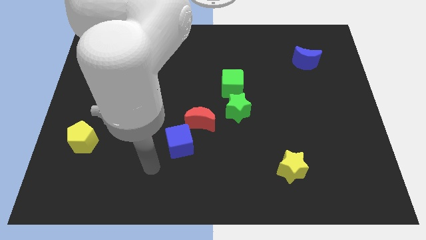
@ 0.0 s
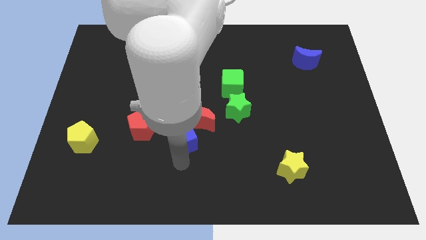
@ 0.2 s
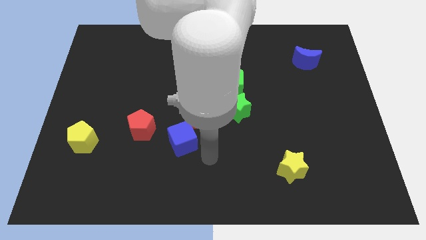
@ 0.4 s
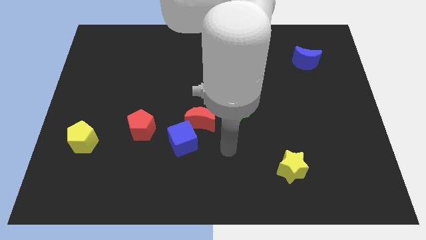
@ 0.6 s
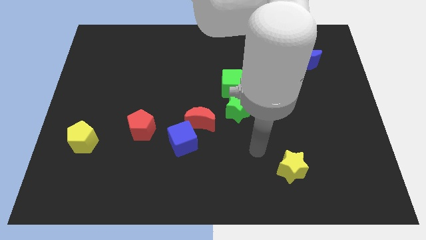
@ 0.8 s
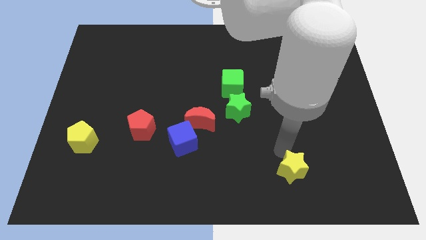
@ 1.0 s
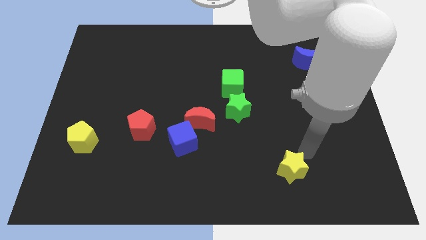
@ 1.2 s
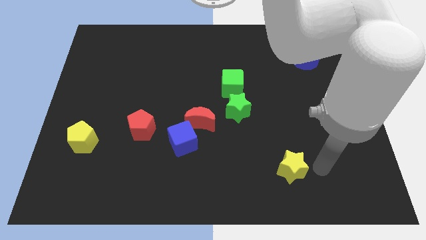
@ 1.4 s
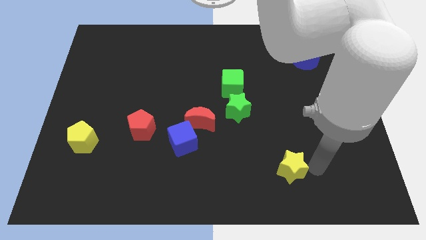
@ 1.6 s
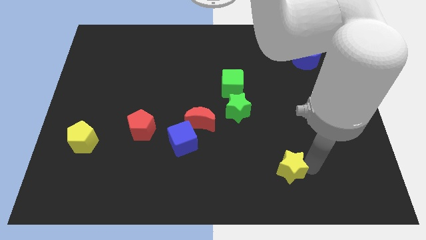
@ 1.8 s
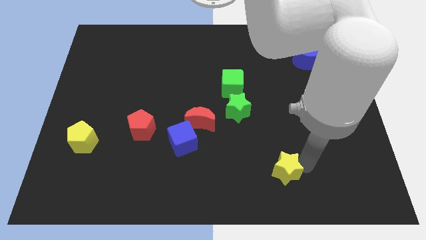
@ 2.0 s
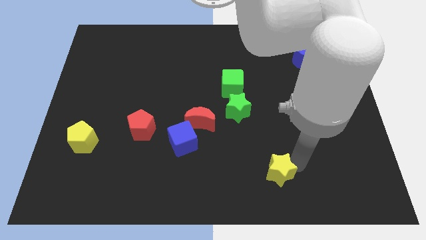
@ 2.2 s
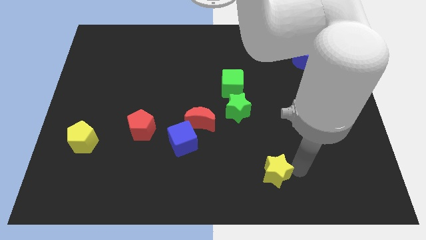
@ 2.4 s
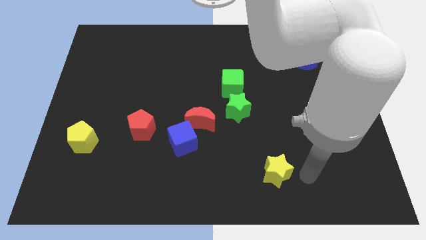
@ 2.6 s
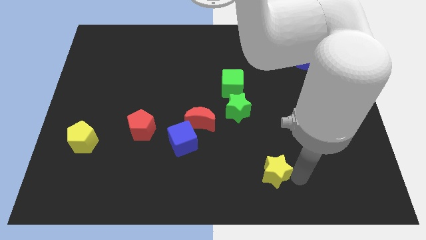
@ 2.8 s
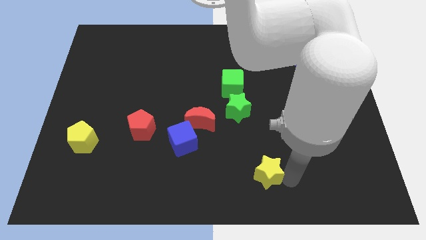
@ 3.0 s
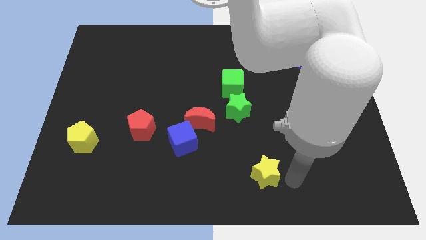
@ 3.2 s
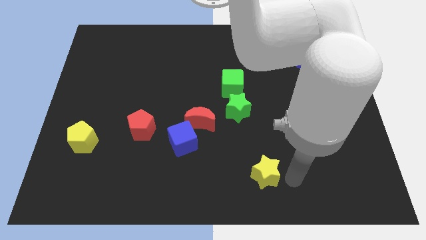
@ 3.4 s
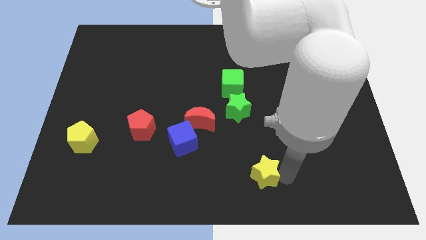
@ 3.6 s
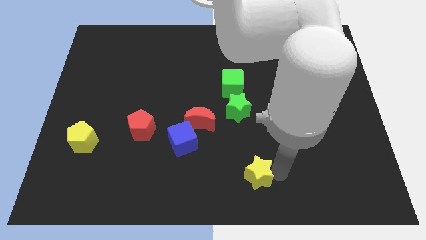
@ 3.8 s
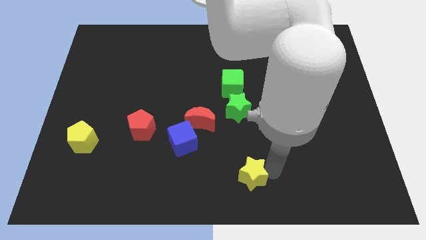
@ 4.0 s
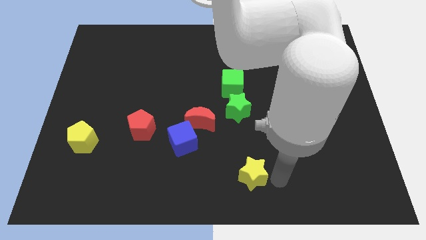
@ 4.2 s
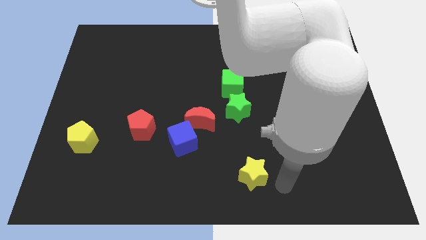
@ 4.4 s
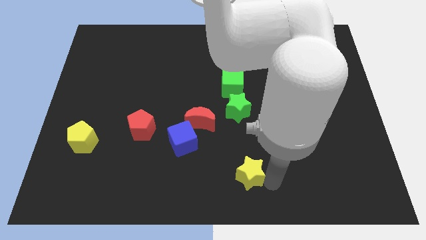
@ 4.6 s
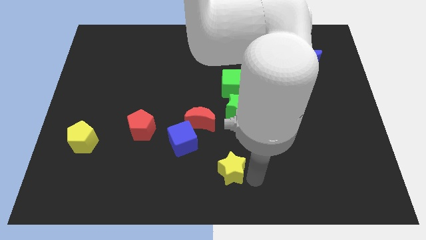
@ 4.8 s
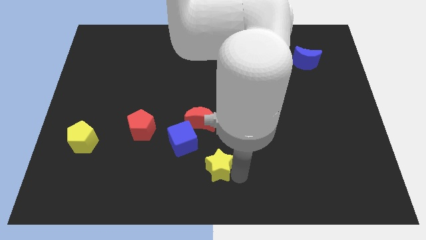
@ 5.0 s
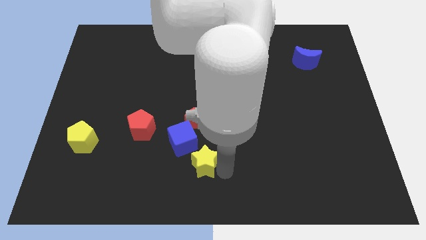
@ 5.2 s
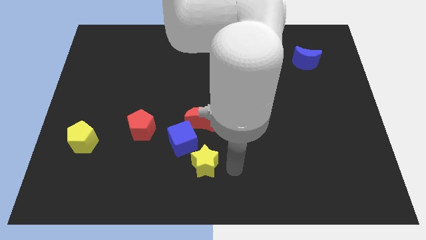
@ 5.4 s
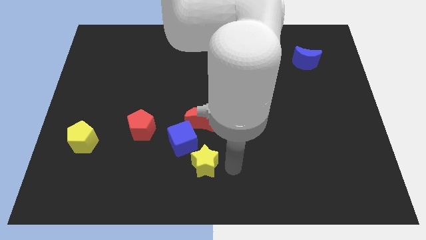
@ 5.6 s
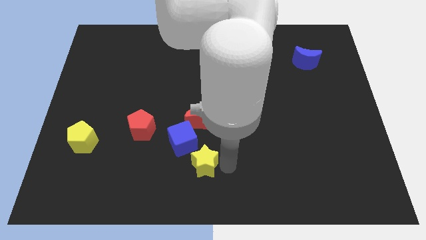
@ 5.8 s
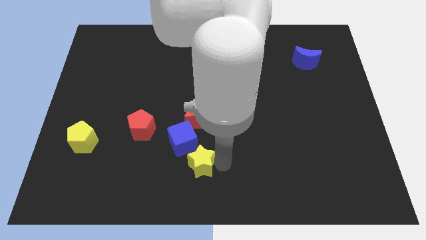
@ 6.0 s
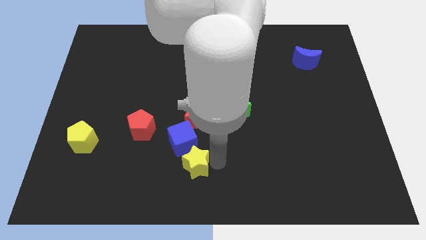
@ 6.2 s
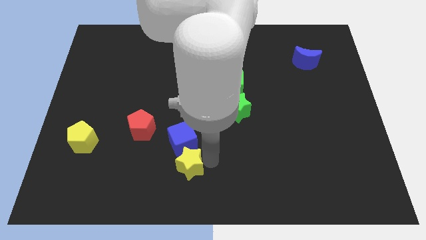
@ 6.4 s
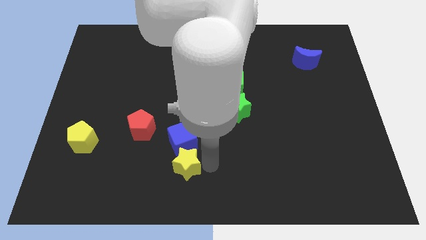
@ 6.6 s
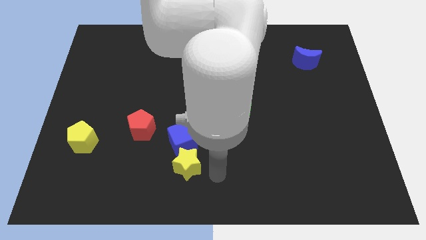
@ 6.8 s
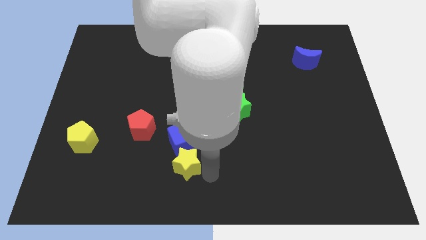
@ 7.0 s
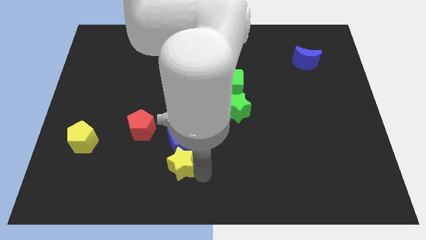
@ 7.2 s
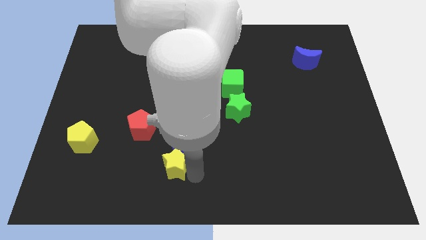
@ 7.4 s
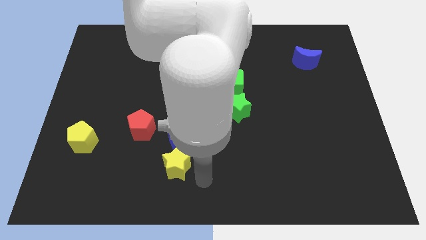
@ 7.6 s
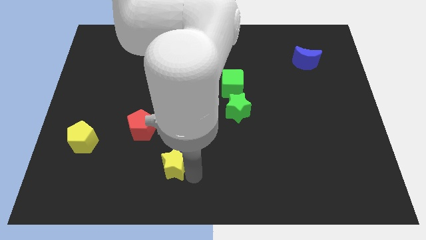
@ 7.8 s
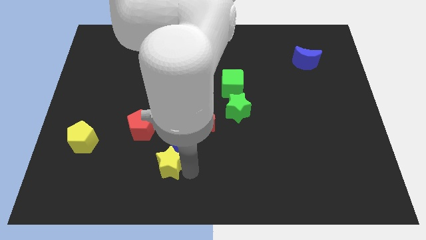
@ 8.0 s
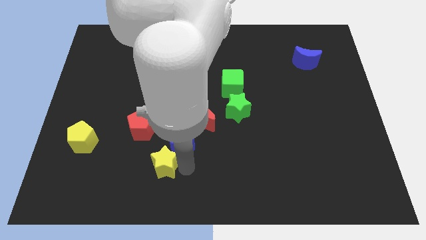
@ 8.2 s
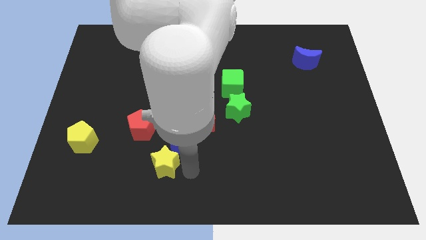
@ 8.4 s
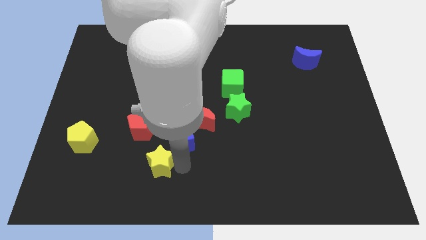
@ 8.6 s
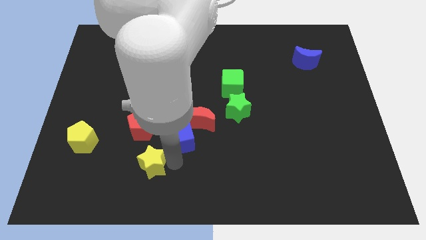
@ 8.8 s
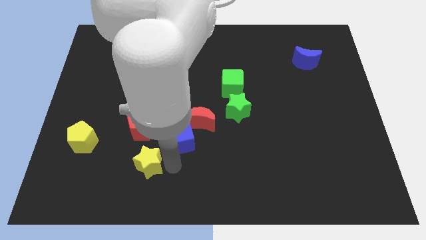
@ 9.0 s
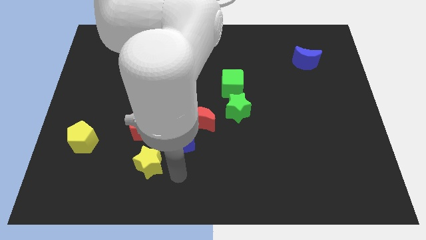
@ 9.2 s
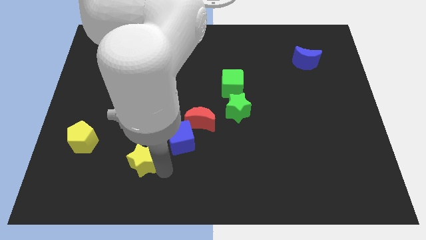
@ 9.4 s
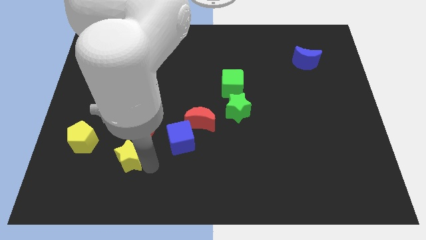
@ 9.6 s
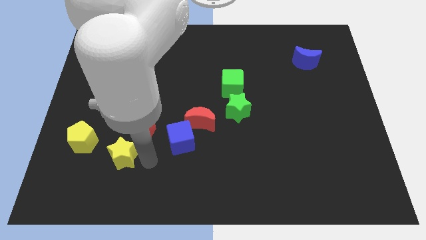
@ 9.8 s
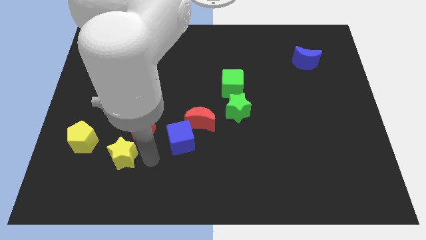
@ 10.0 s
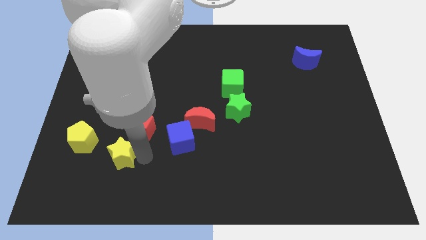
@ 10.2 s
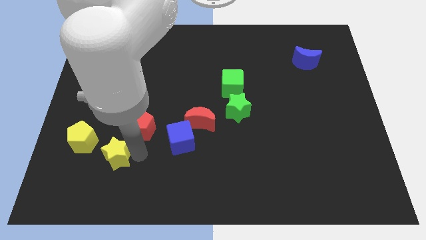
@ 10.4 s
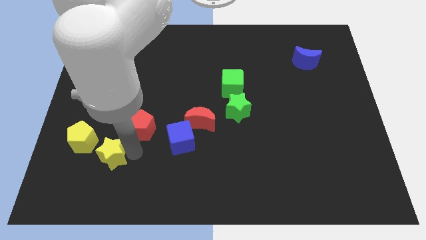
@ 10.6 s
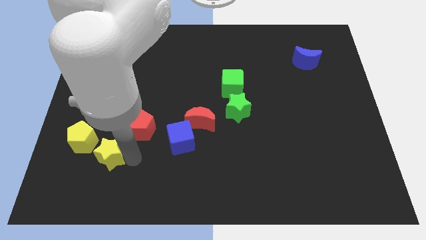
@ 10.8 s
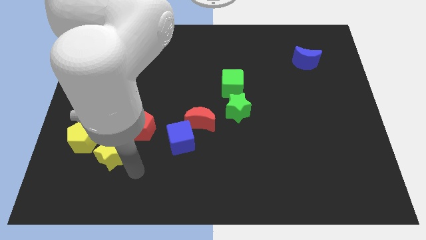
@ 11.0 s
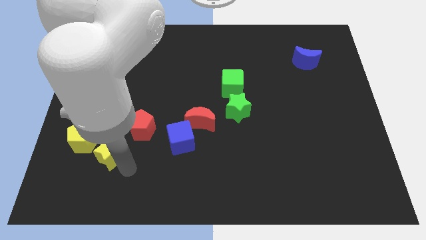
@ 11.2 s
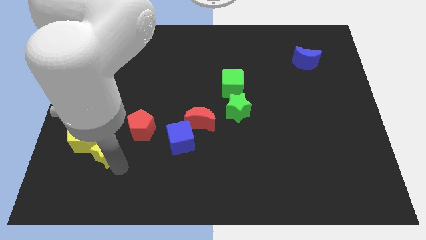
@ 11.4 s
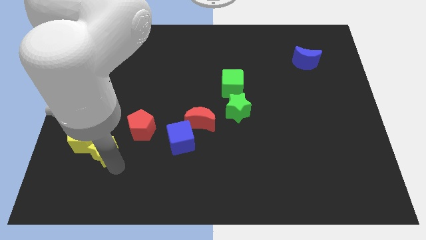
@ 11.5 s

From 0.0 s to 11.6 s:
slide the yellow star towards the yellow pentagon

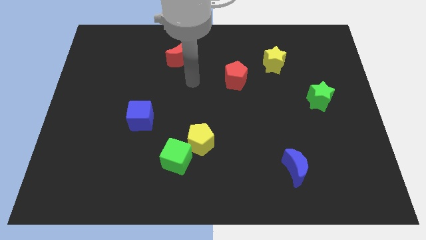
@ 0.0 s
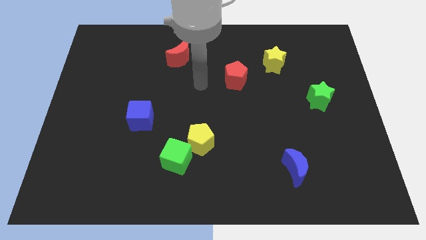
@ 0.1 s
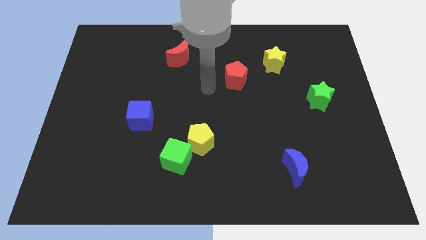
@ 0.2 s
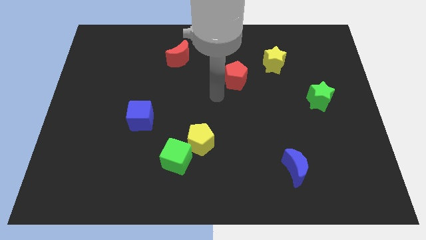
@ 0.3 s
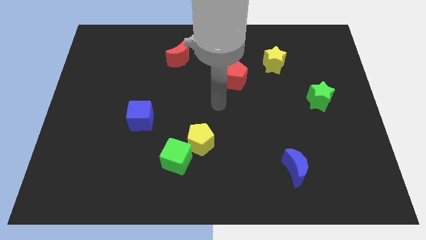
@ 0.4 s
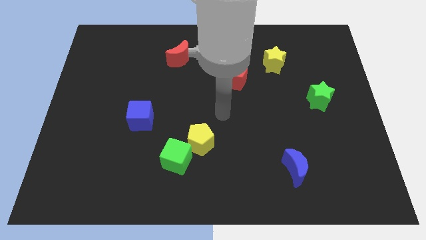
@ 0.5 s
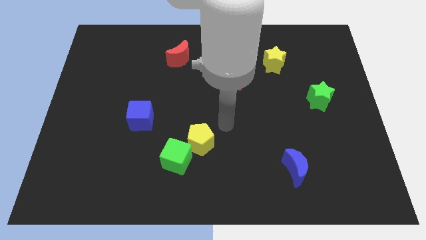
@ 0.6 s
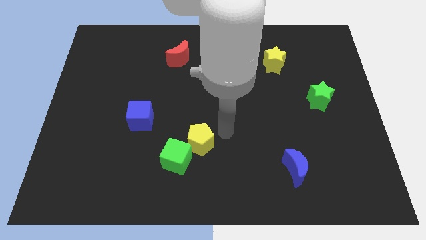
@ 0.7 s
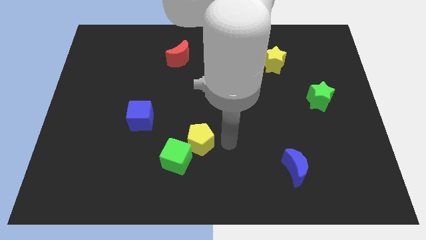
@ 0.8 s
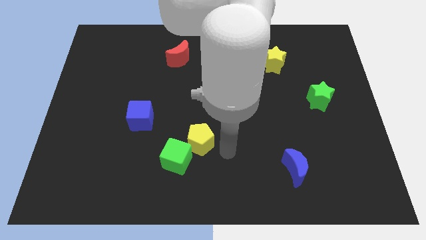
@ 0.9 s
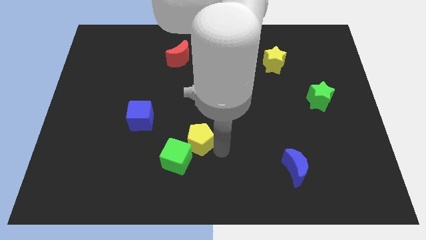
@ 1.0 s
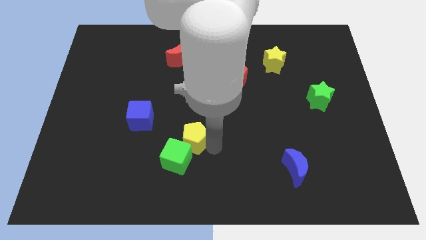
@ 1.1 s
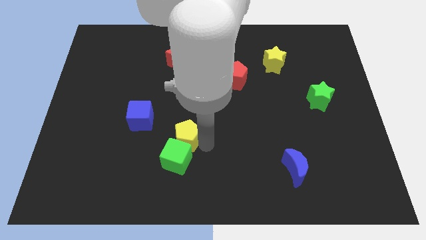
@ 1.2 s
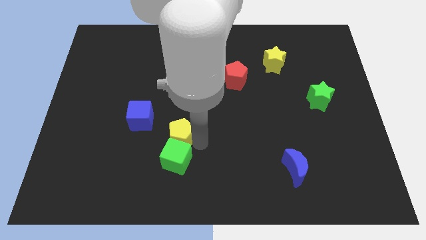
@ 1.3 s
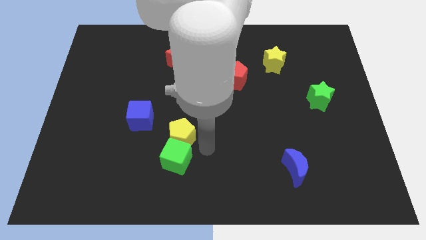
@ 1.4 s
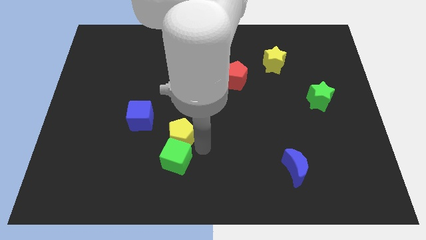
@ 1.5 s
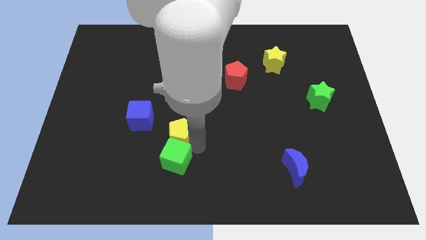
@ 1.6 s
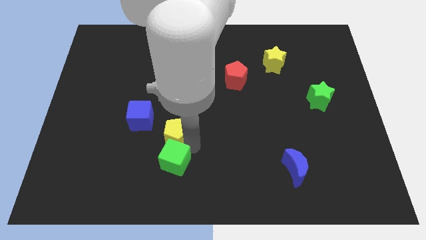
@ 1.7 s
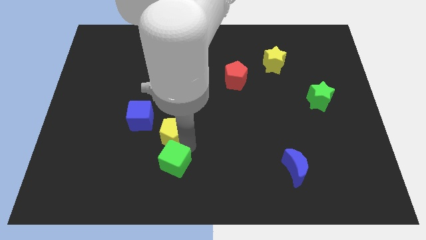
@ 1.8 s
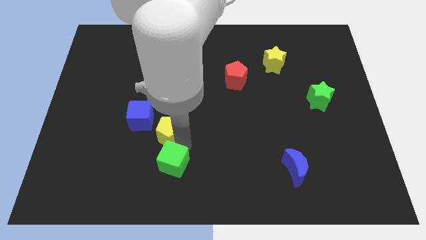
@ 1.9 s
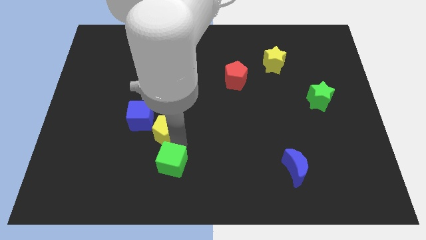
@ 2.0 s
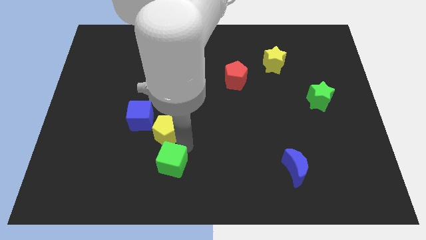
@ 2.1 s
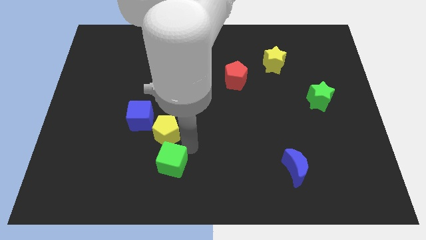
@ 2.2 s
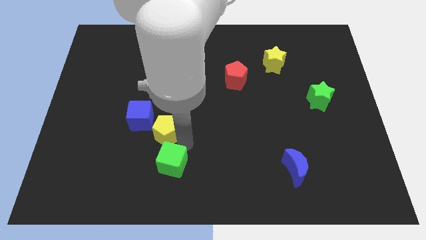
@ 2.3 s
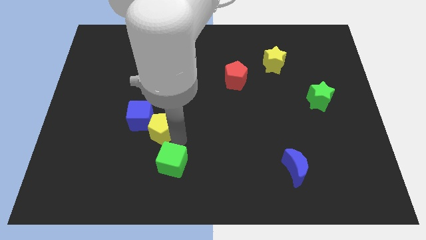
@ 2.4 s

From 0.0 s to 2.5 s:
slide the yellow pentagon next to the blue cube
